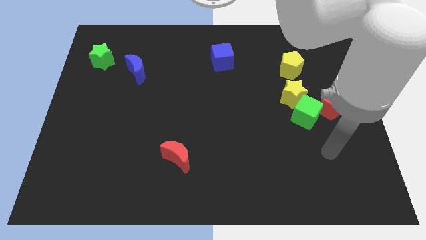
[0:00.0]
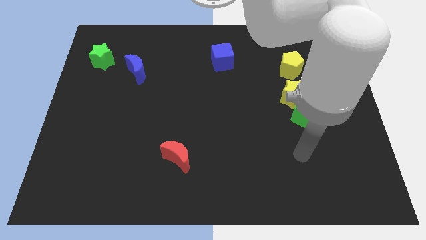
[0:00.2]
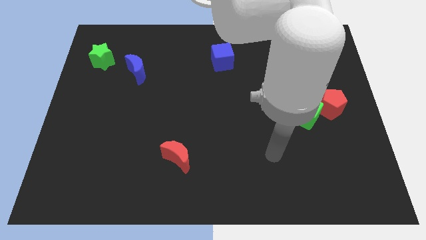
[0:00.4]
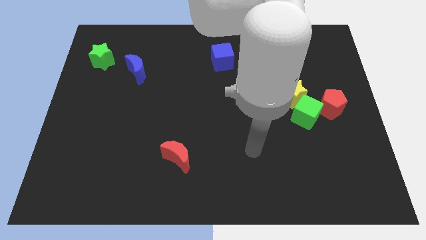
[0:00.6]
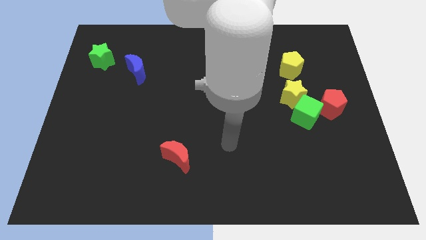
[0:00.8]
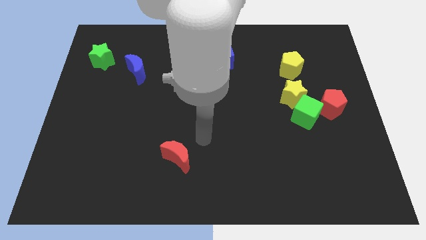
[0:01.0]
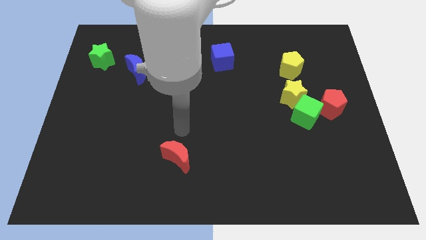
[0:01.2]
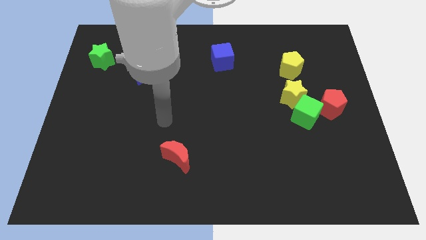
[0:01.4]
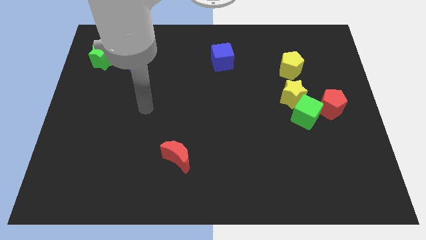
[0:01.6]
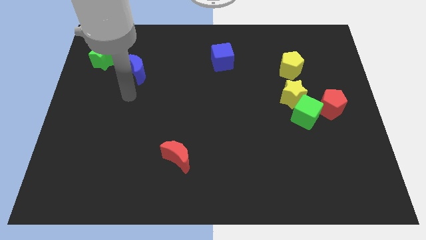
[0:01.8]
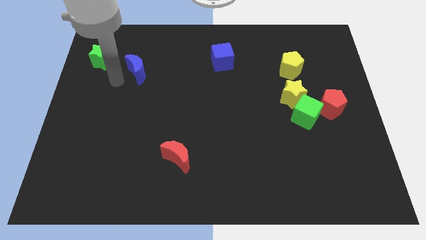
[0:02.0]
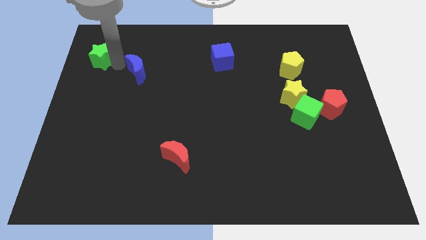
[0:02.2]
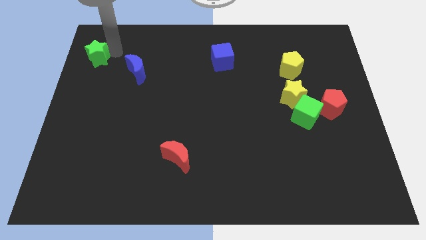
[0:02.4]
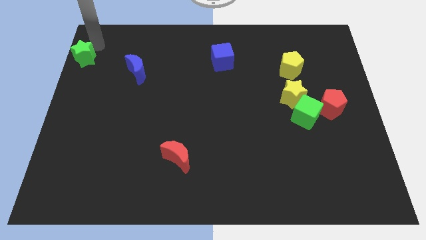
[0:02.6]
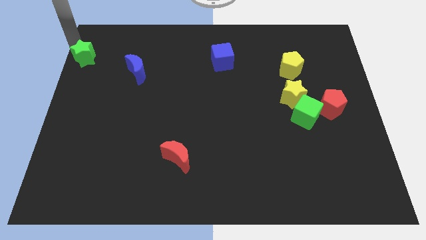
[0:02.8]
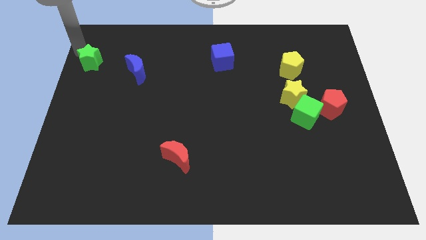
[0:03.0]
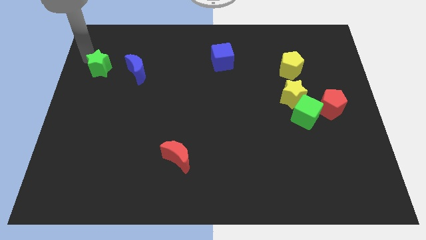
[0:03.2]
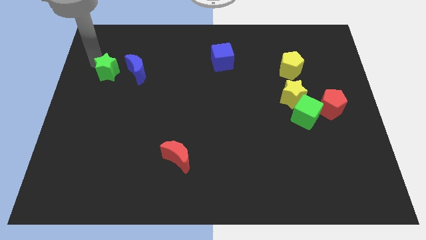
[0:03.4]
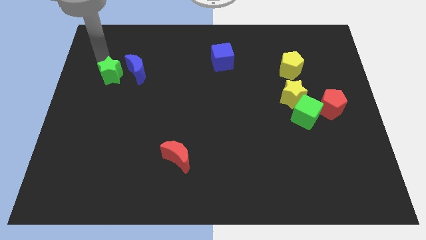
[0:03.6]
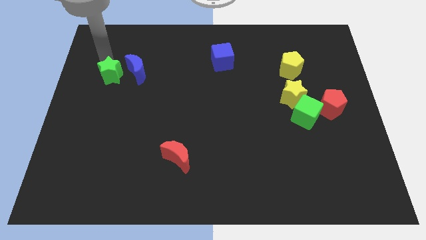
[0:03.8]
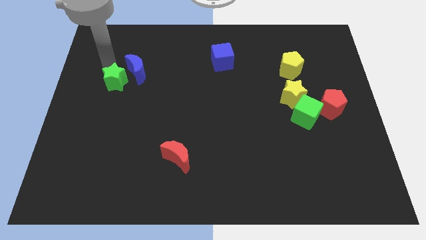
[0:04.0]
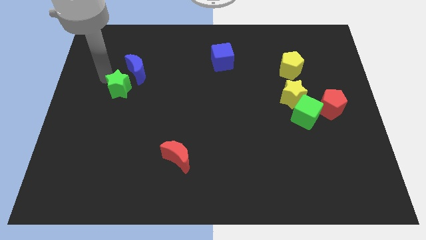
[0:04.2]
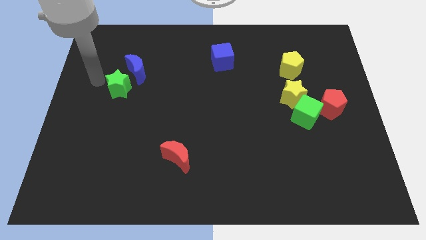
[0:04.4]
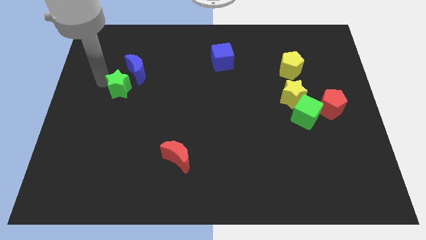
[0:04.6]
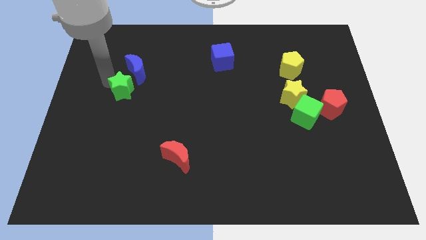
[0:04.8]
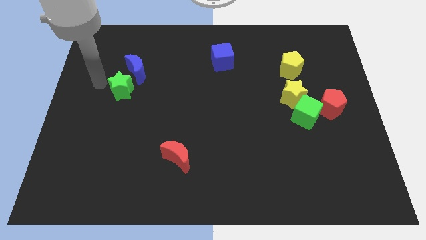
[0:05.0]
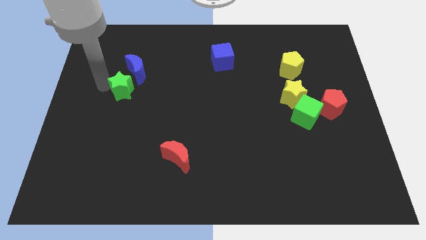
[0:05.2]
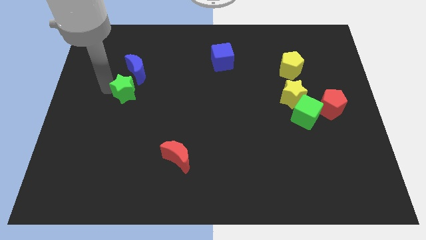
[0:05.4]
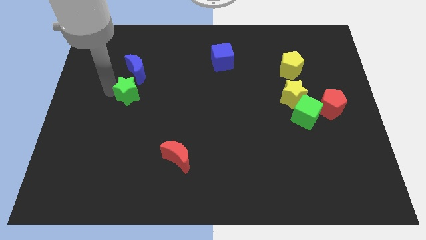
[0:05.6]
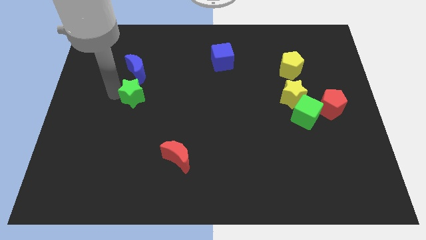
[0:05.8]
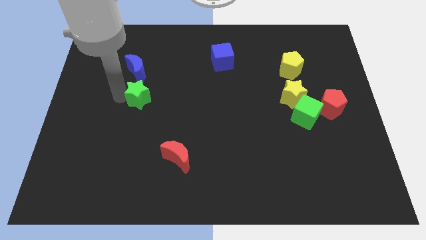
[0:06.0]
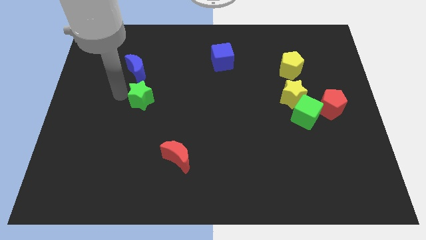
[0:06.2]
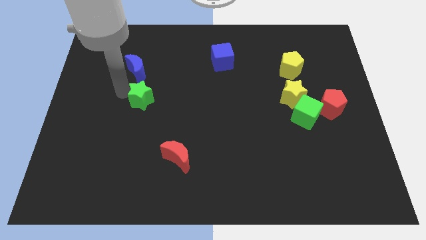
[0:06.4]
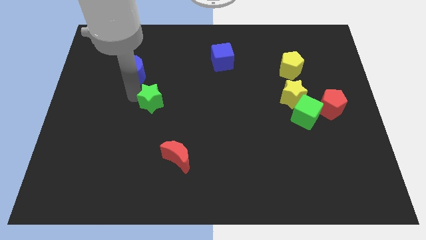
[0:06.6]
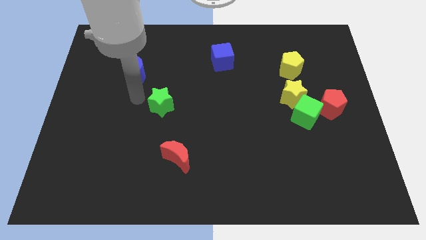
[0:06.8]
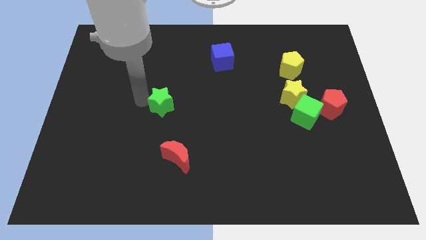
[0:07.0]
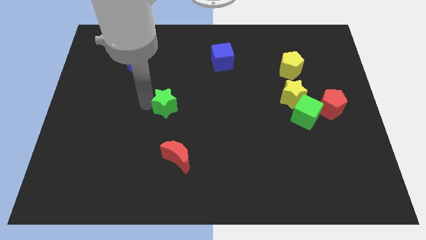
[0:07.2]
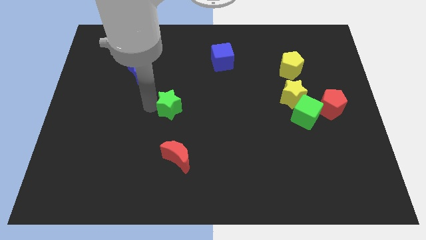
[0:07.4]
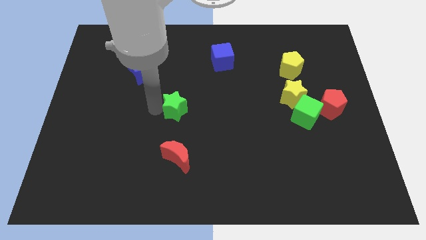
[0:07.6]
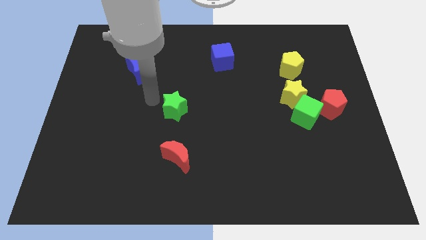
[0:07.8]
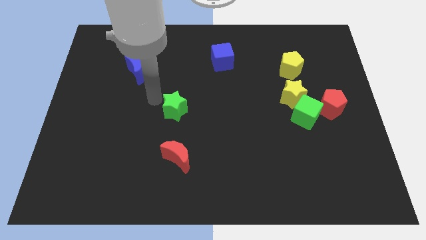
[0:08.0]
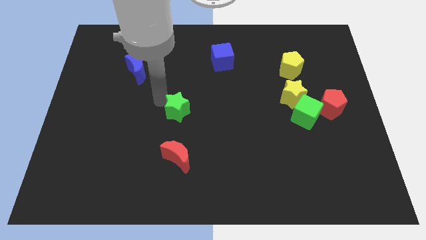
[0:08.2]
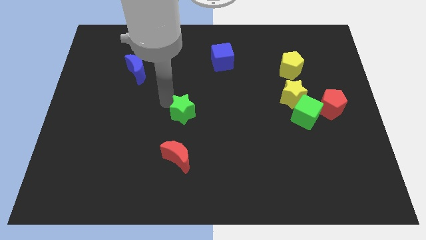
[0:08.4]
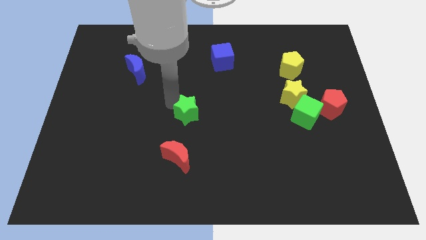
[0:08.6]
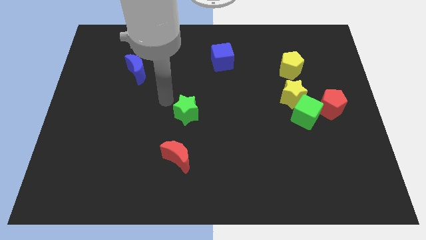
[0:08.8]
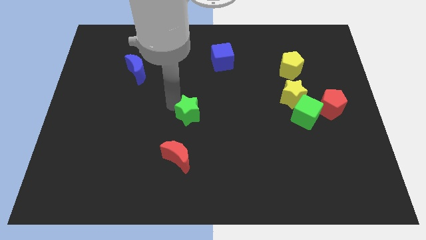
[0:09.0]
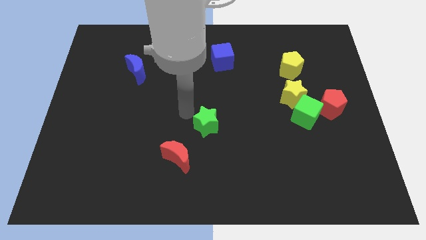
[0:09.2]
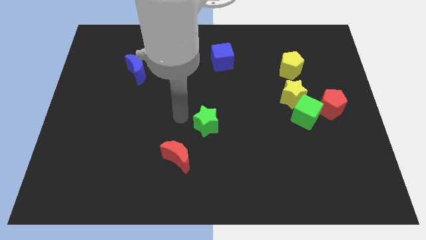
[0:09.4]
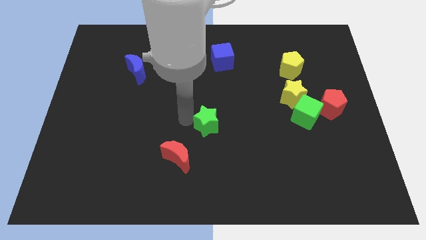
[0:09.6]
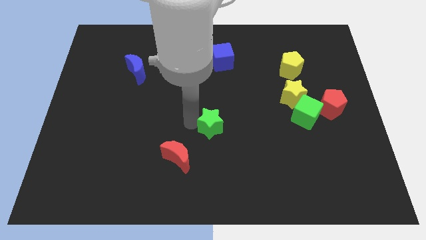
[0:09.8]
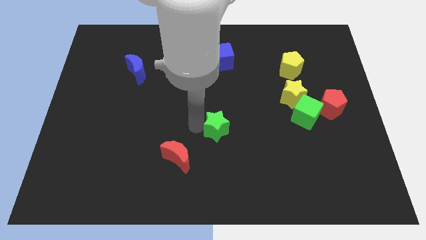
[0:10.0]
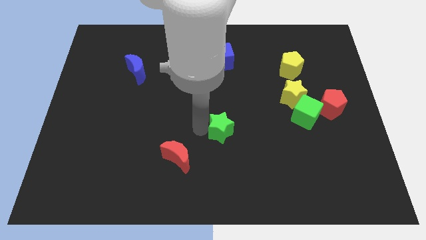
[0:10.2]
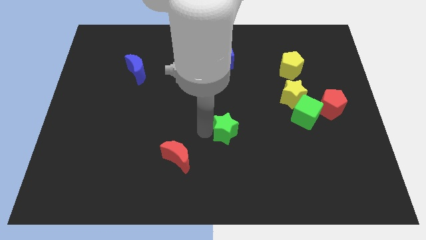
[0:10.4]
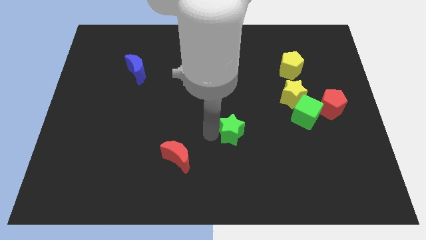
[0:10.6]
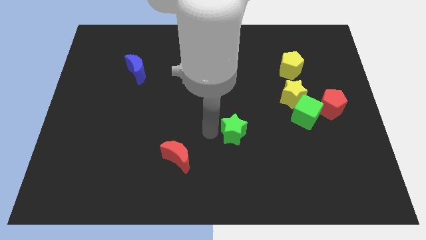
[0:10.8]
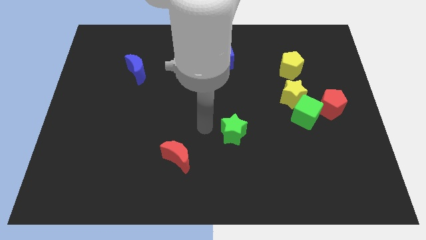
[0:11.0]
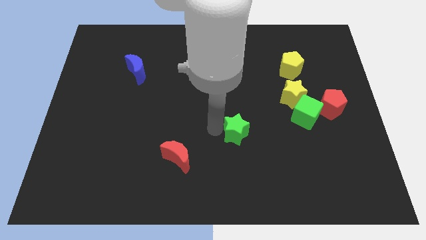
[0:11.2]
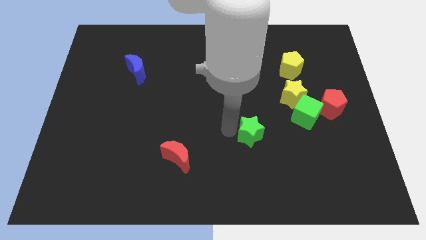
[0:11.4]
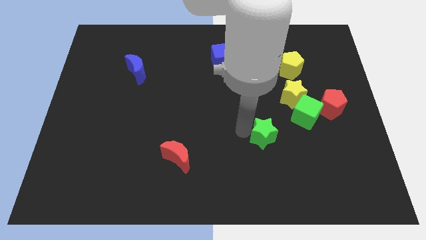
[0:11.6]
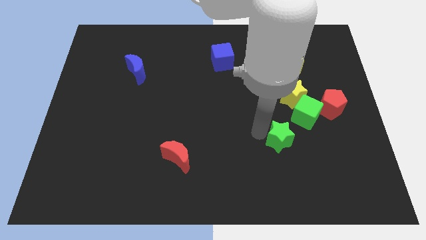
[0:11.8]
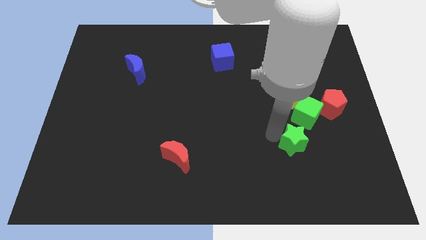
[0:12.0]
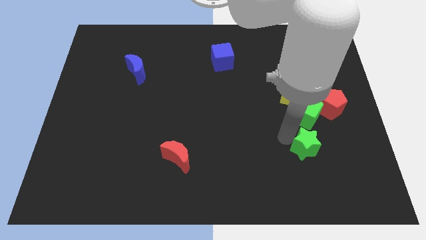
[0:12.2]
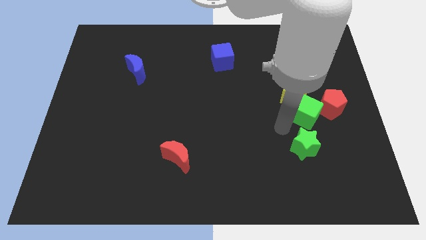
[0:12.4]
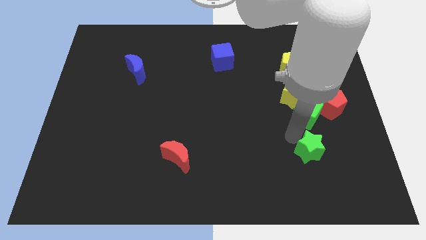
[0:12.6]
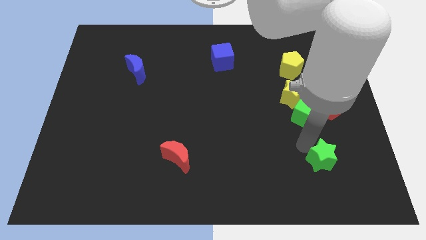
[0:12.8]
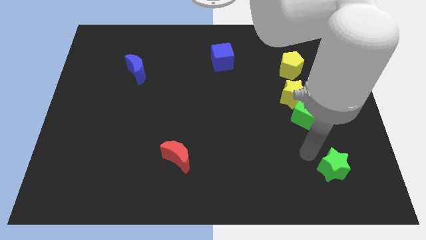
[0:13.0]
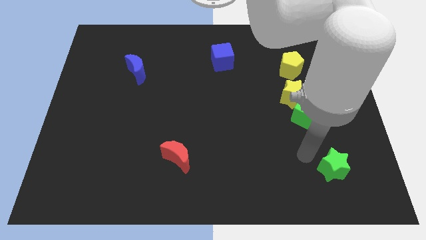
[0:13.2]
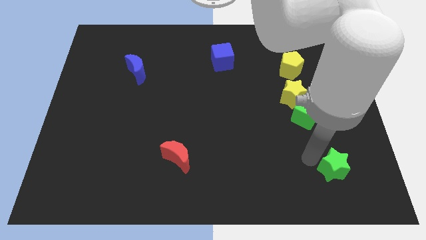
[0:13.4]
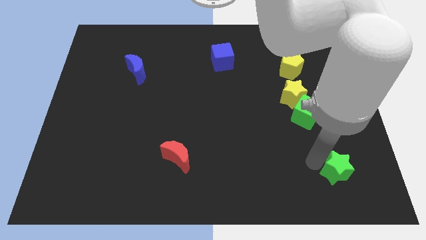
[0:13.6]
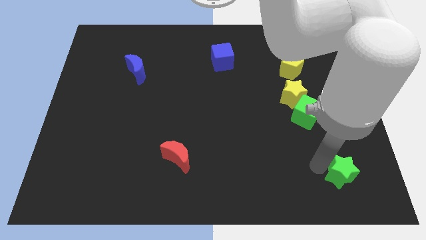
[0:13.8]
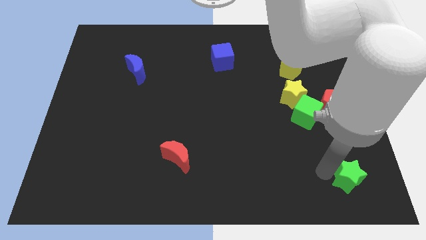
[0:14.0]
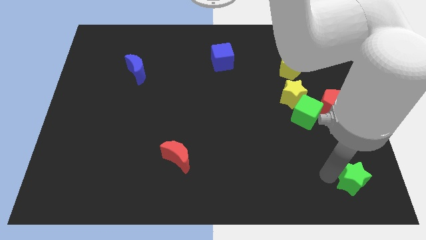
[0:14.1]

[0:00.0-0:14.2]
slide the green star to the lower right corner
